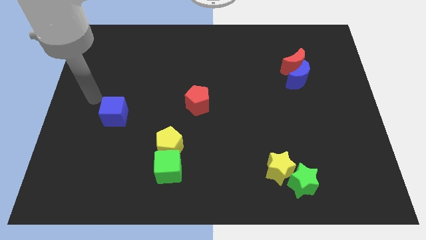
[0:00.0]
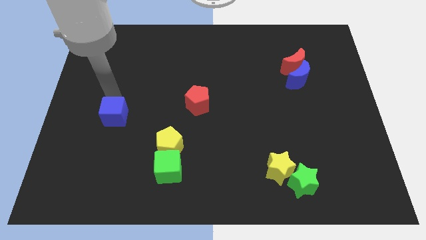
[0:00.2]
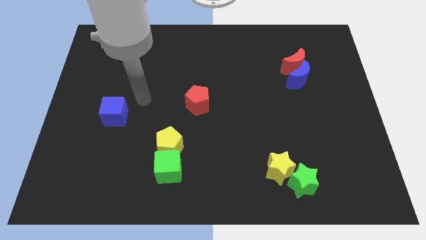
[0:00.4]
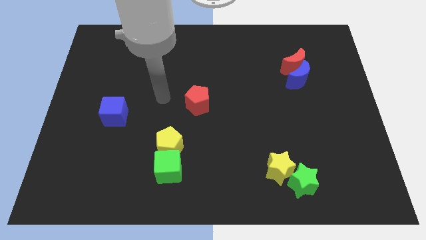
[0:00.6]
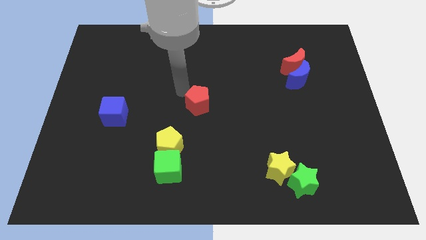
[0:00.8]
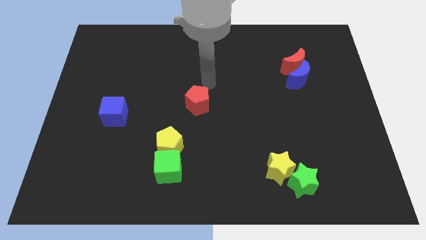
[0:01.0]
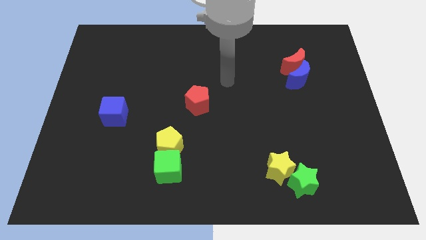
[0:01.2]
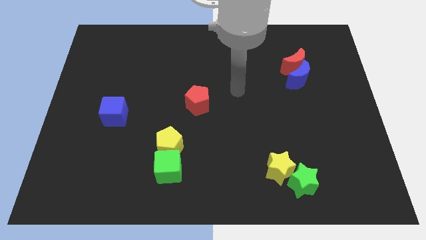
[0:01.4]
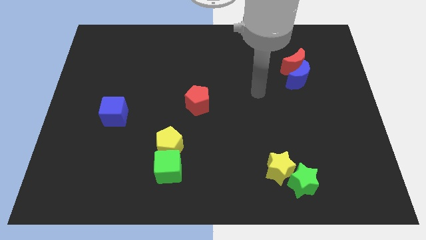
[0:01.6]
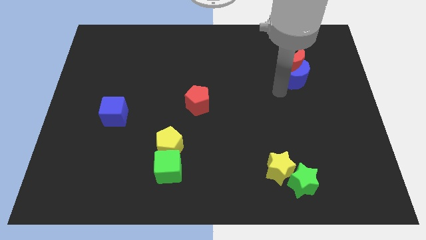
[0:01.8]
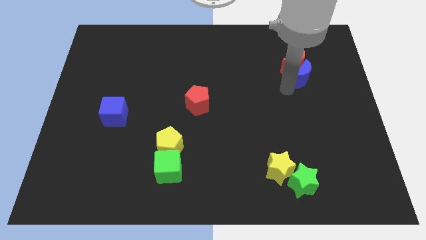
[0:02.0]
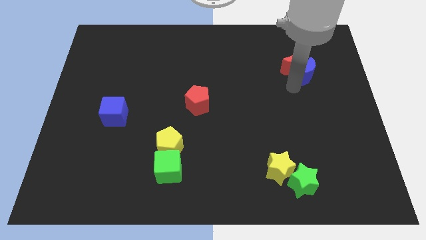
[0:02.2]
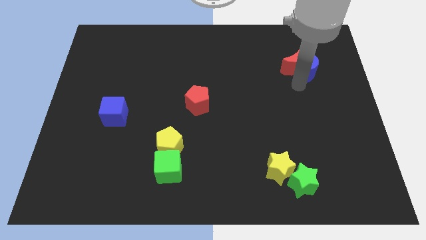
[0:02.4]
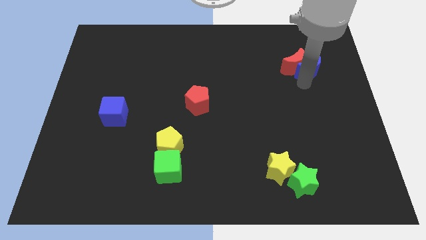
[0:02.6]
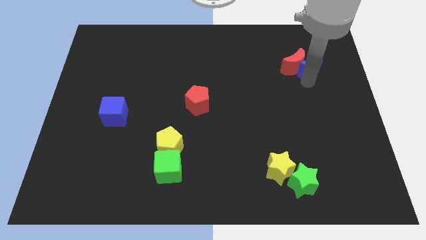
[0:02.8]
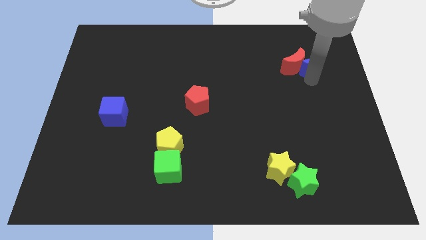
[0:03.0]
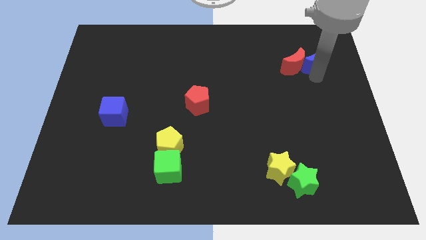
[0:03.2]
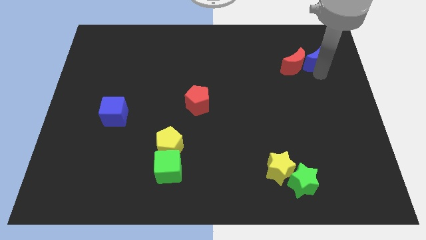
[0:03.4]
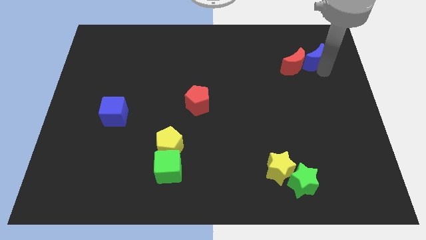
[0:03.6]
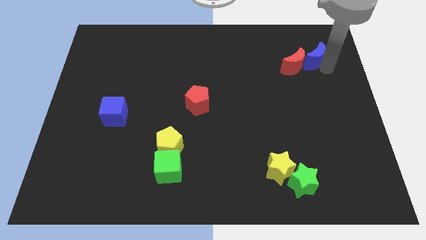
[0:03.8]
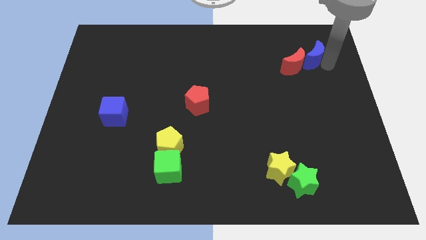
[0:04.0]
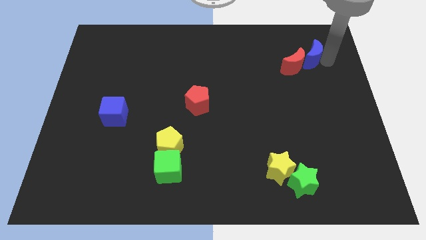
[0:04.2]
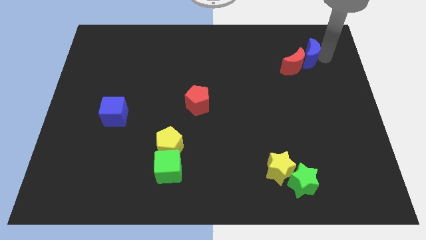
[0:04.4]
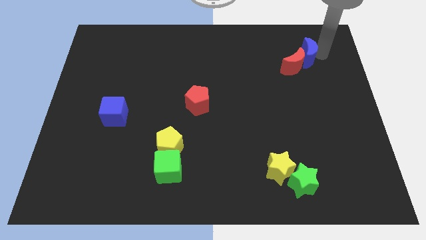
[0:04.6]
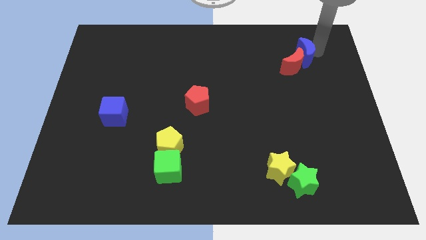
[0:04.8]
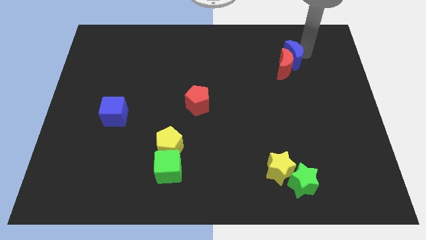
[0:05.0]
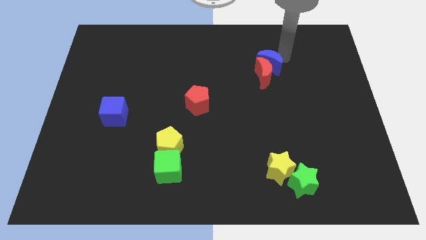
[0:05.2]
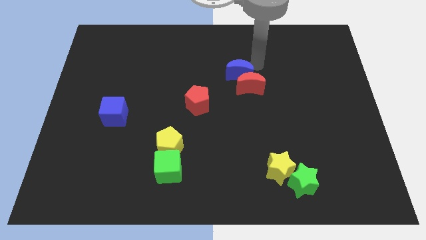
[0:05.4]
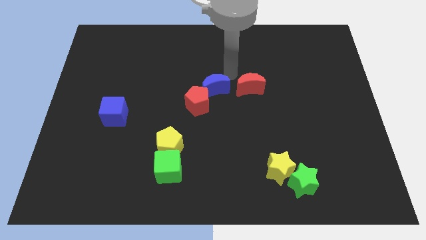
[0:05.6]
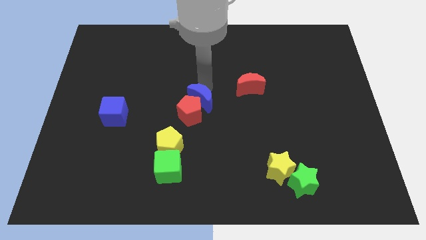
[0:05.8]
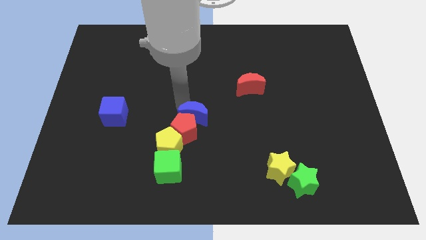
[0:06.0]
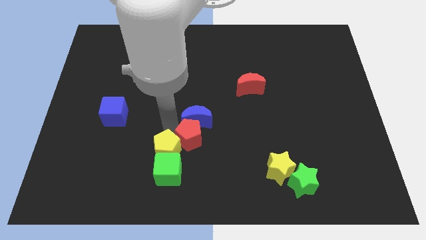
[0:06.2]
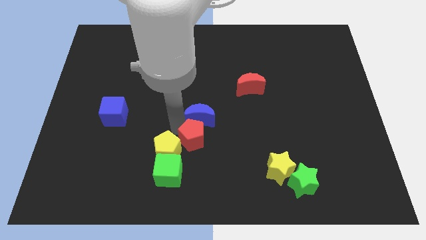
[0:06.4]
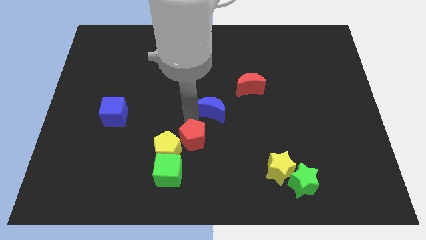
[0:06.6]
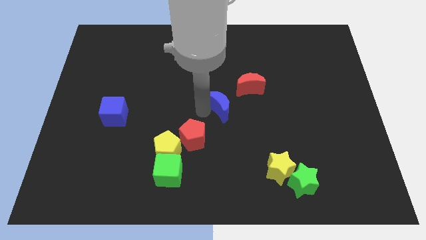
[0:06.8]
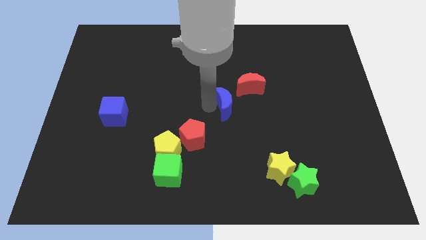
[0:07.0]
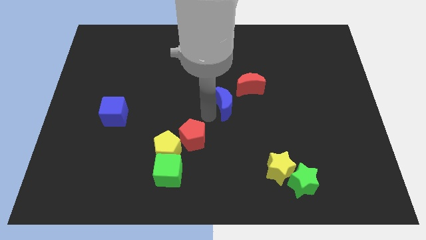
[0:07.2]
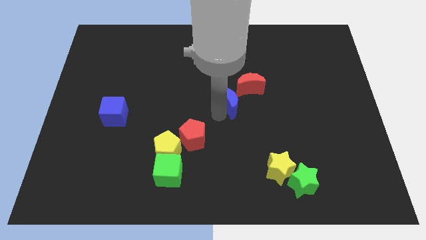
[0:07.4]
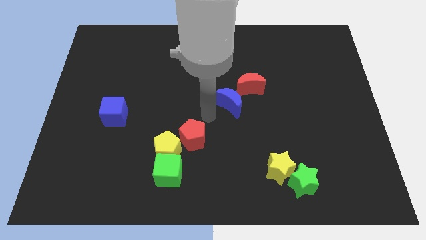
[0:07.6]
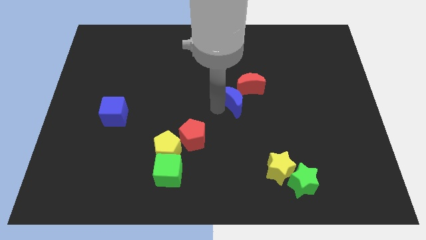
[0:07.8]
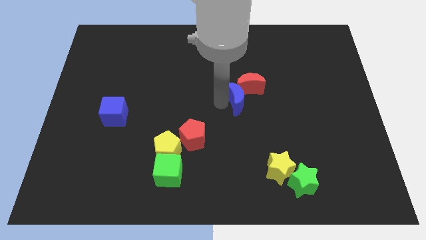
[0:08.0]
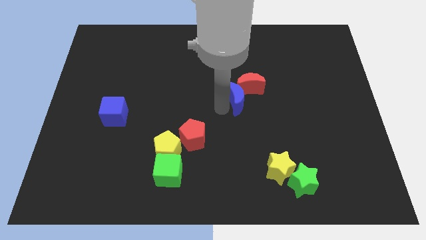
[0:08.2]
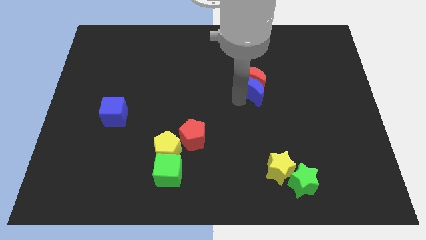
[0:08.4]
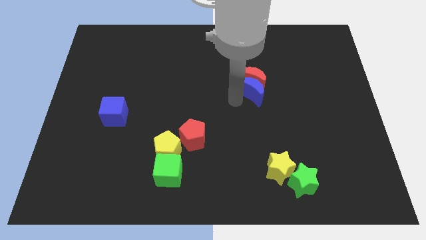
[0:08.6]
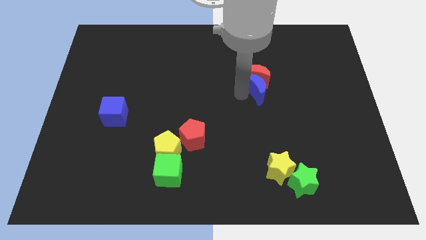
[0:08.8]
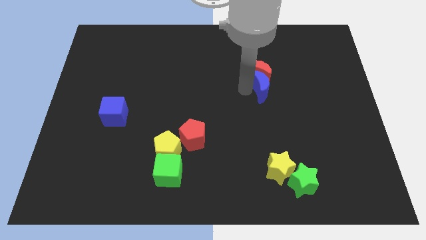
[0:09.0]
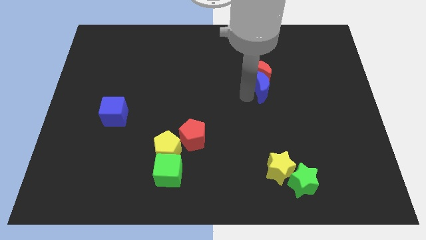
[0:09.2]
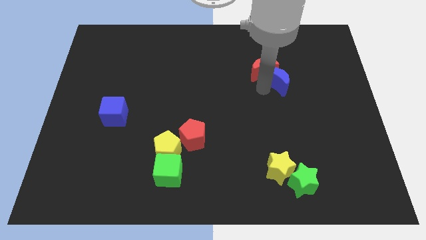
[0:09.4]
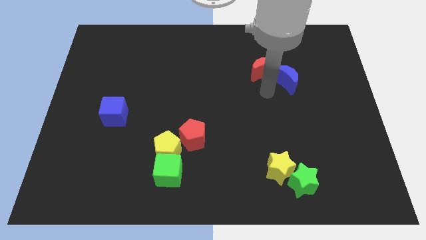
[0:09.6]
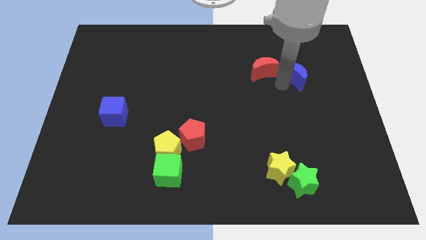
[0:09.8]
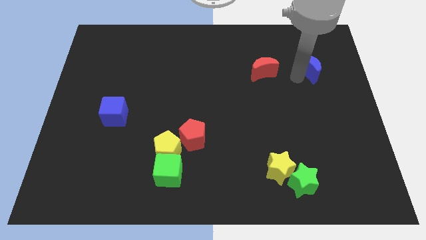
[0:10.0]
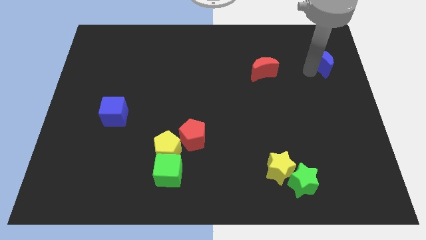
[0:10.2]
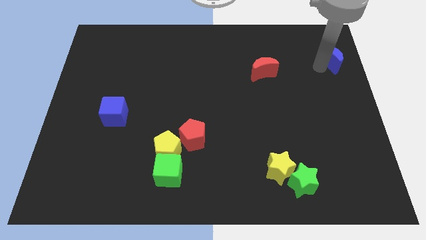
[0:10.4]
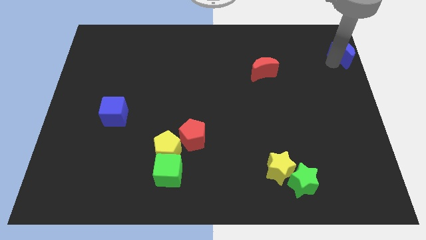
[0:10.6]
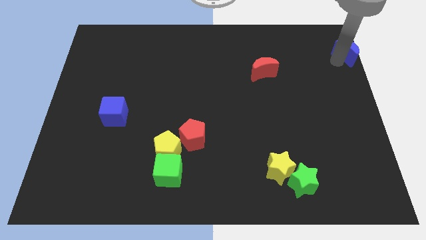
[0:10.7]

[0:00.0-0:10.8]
push the blue moon to the top right of the board
